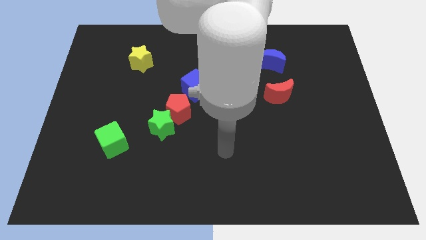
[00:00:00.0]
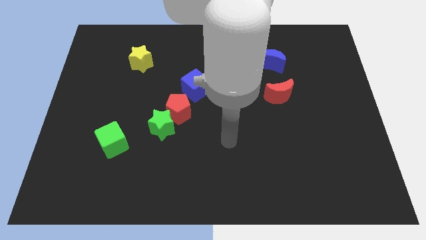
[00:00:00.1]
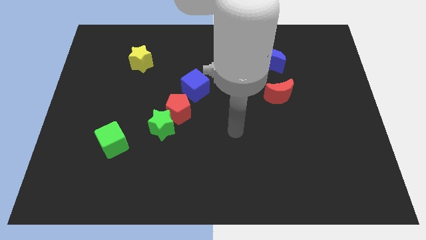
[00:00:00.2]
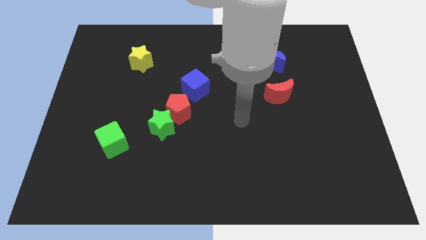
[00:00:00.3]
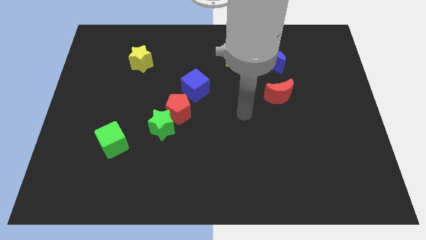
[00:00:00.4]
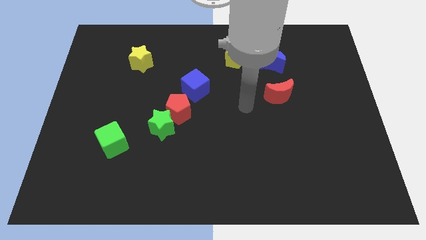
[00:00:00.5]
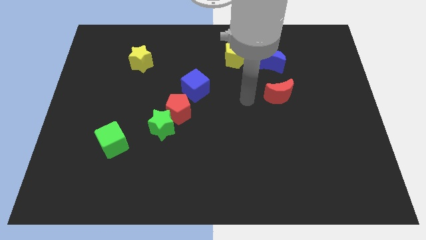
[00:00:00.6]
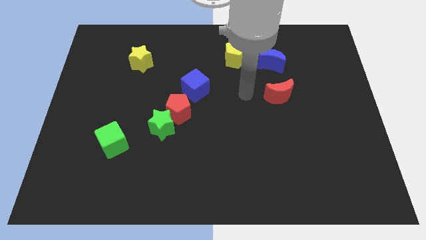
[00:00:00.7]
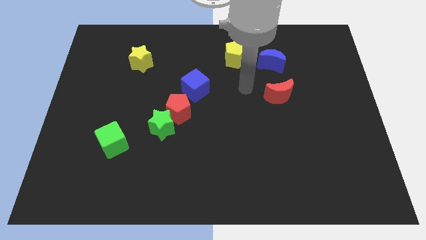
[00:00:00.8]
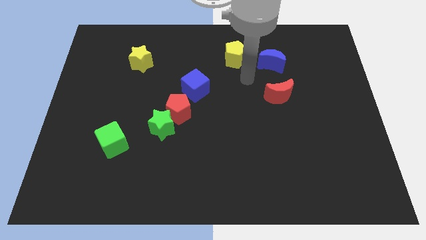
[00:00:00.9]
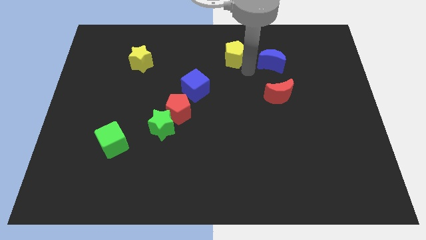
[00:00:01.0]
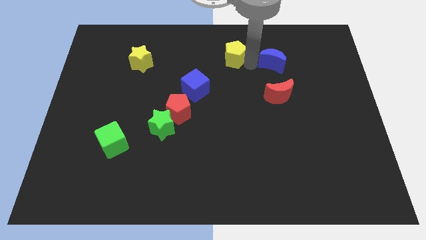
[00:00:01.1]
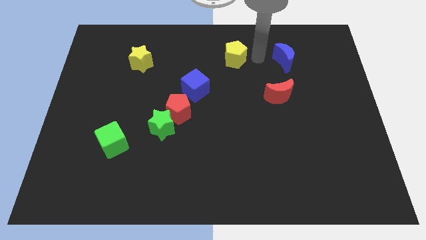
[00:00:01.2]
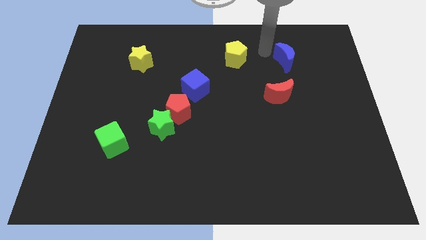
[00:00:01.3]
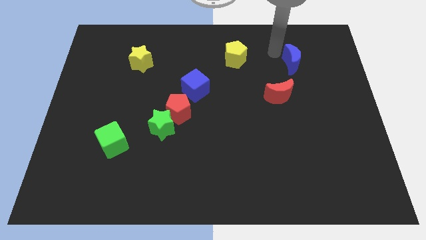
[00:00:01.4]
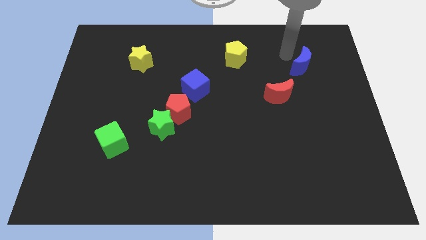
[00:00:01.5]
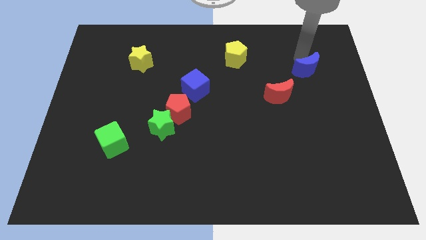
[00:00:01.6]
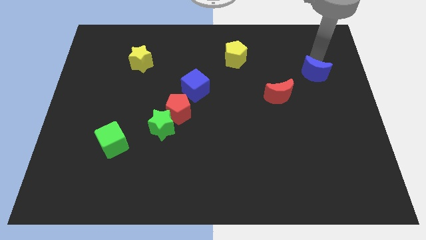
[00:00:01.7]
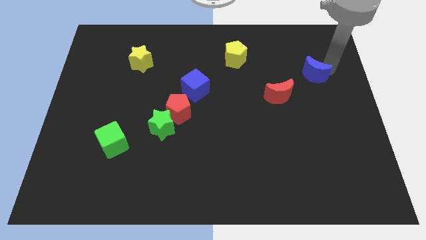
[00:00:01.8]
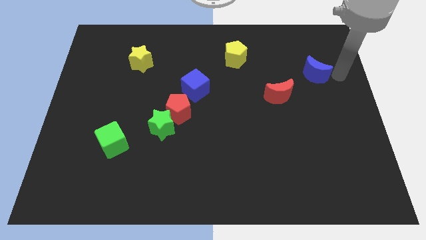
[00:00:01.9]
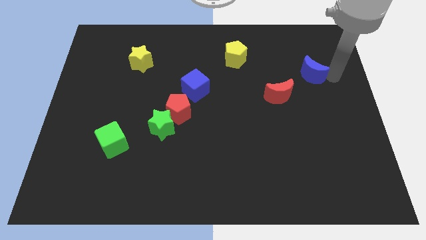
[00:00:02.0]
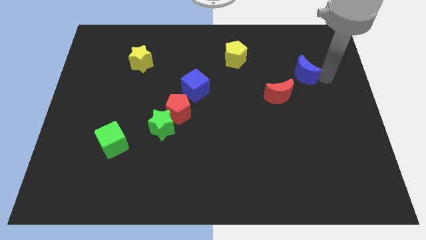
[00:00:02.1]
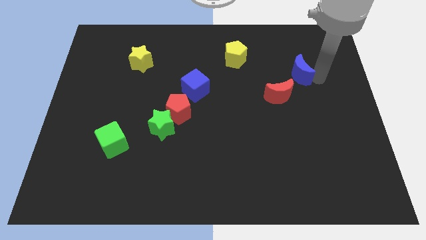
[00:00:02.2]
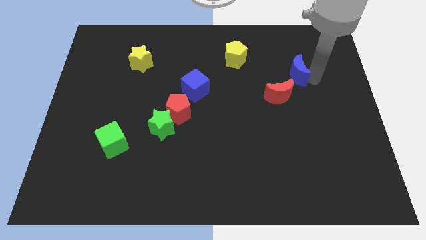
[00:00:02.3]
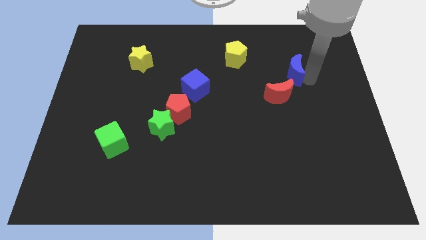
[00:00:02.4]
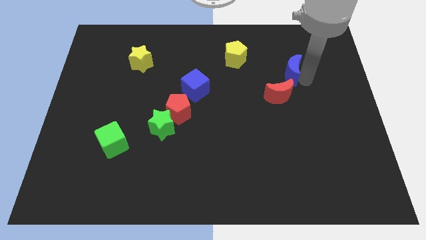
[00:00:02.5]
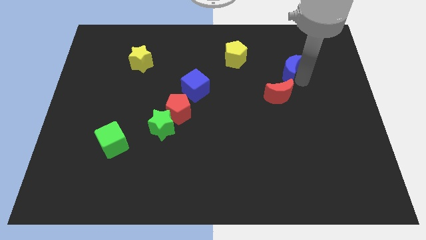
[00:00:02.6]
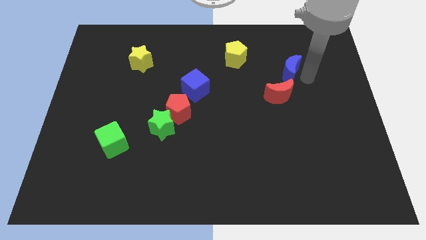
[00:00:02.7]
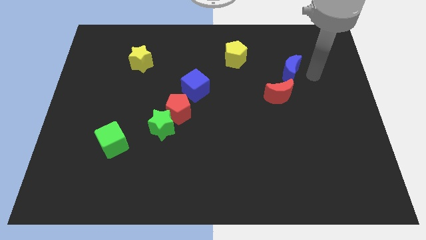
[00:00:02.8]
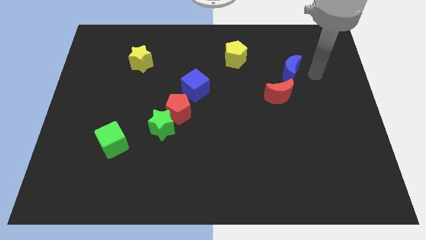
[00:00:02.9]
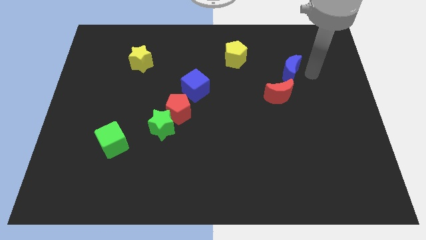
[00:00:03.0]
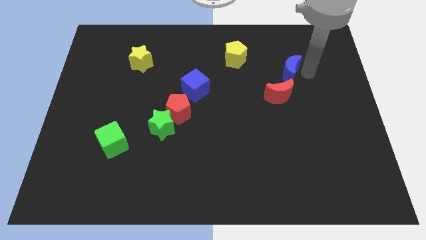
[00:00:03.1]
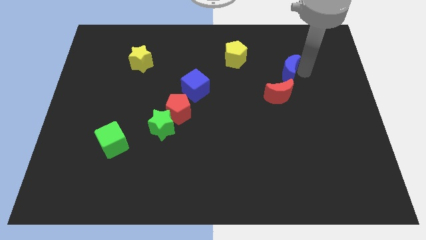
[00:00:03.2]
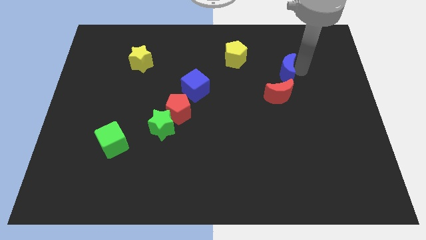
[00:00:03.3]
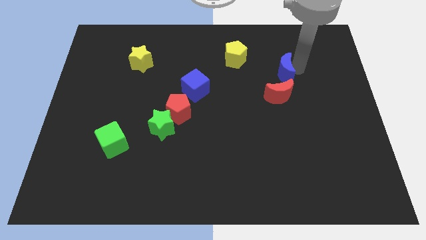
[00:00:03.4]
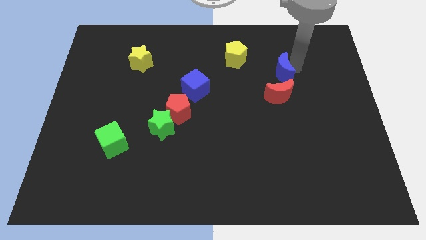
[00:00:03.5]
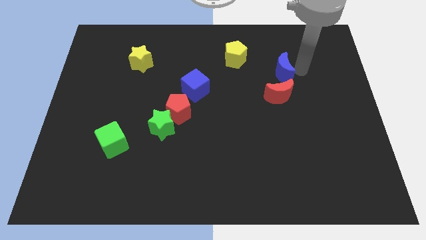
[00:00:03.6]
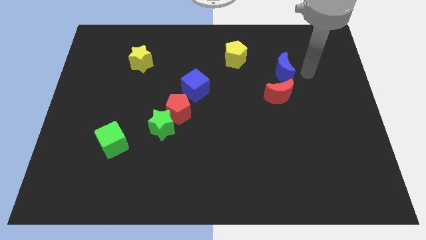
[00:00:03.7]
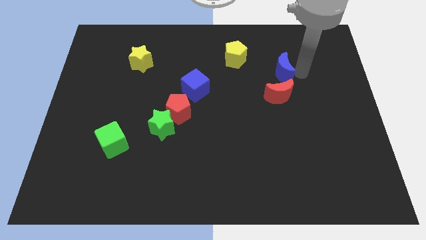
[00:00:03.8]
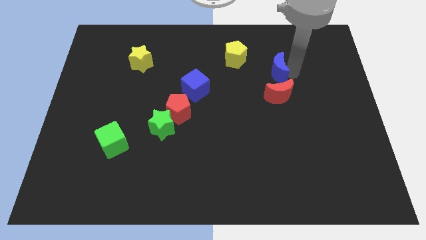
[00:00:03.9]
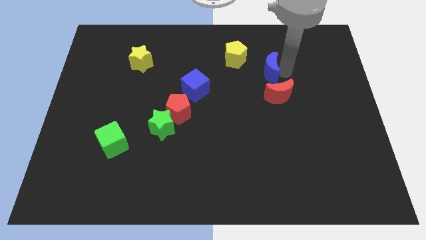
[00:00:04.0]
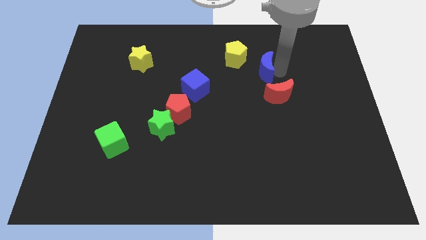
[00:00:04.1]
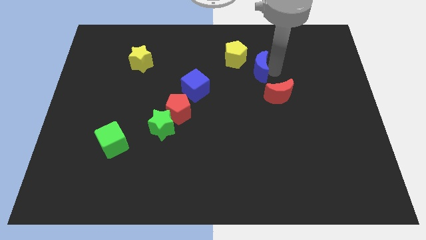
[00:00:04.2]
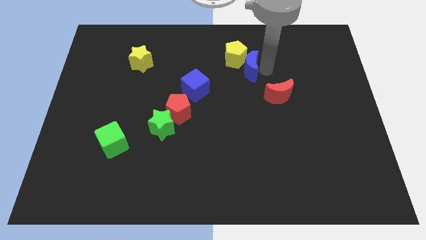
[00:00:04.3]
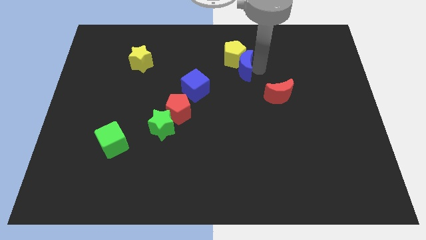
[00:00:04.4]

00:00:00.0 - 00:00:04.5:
slide the blue moon left a bit

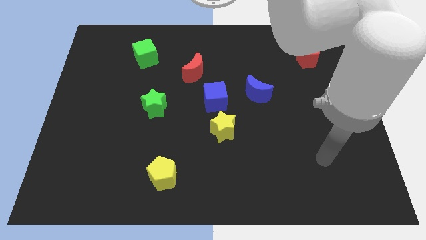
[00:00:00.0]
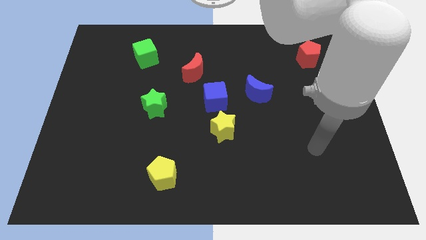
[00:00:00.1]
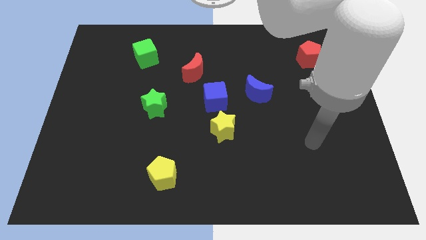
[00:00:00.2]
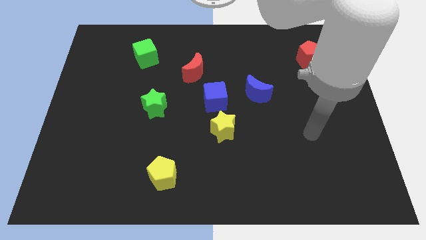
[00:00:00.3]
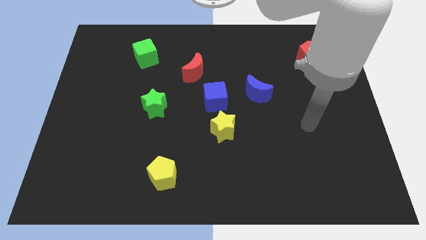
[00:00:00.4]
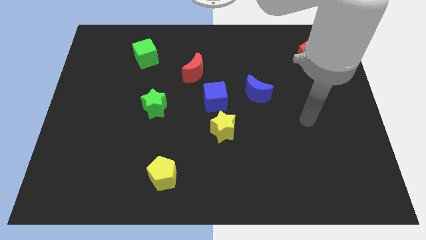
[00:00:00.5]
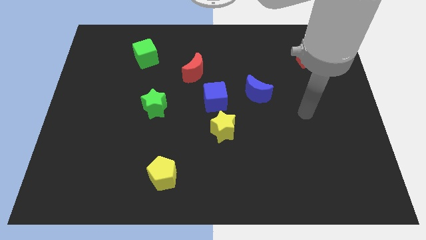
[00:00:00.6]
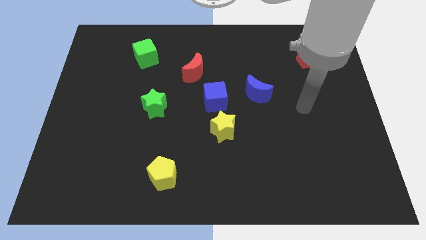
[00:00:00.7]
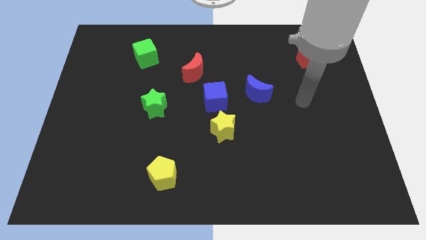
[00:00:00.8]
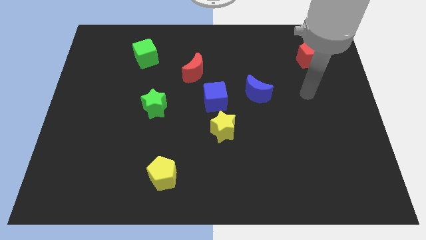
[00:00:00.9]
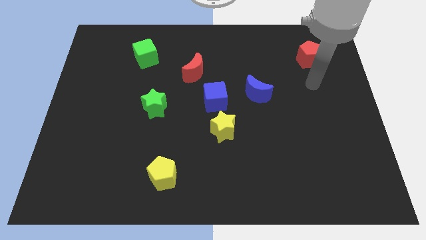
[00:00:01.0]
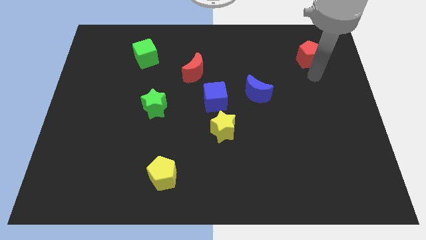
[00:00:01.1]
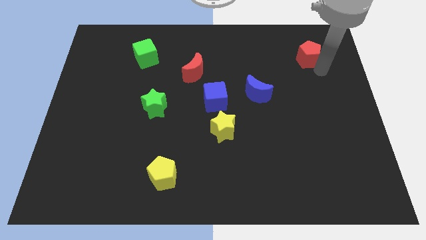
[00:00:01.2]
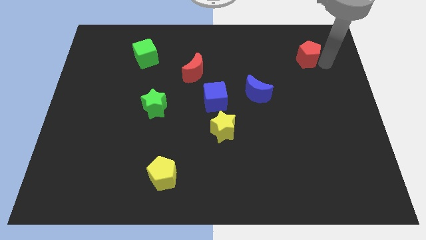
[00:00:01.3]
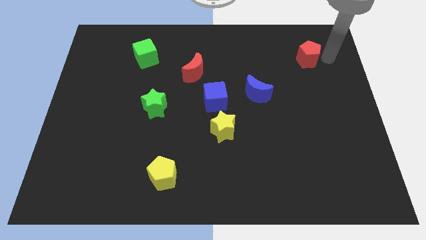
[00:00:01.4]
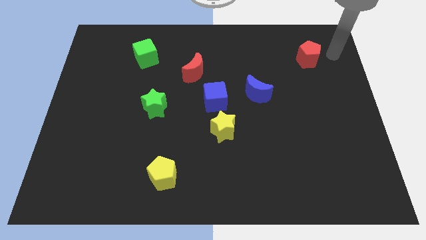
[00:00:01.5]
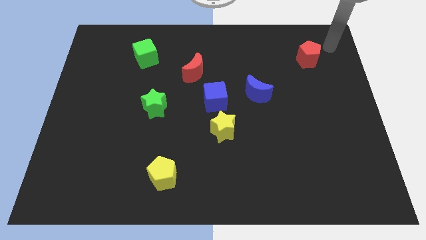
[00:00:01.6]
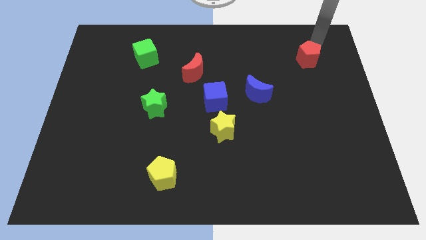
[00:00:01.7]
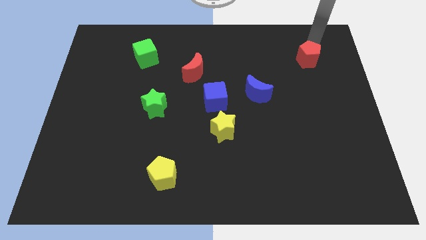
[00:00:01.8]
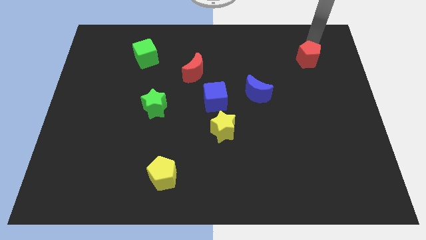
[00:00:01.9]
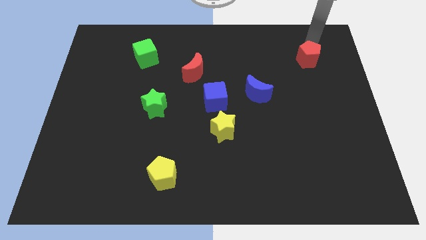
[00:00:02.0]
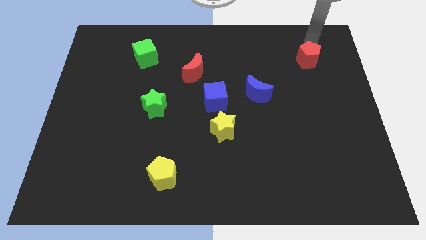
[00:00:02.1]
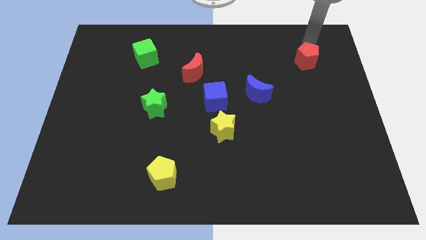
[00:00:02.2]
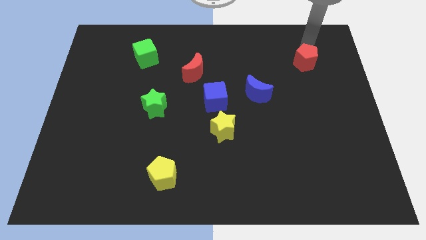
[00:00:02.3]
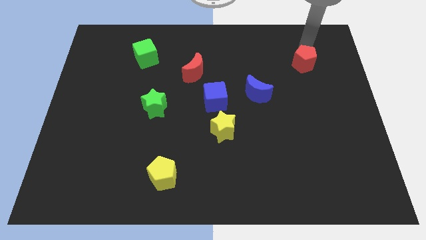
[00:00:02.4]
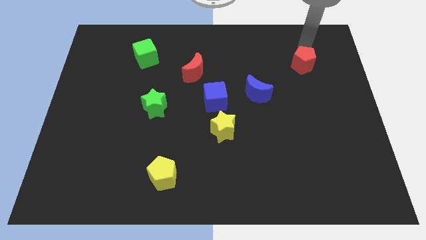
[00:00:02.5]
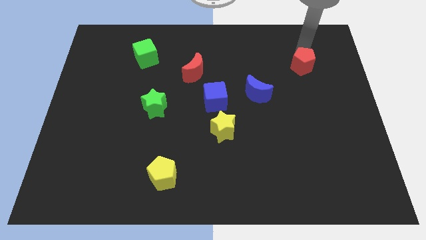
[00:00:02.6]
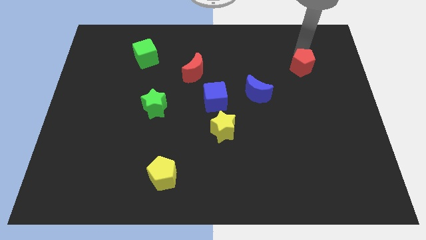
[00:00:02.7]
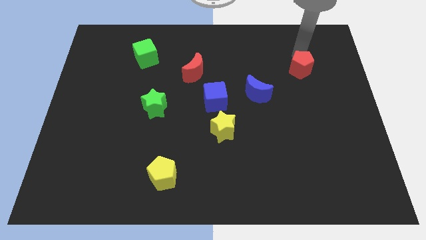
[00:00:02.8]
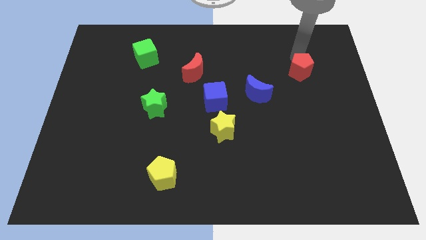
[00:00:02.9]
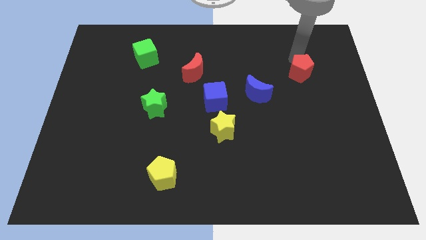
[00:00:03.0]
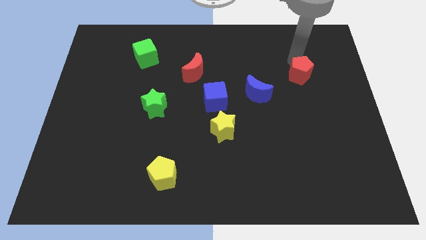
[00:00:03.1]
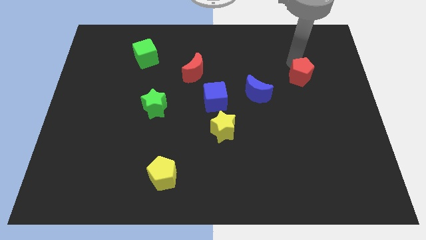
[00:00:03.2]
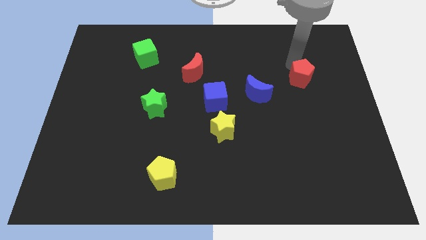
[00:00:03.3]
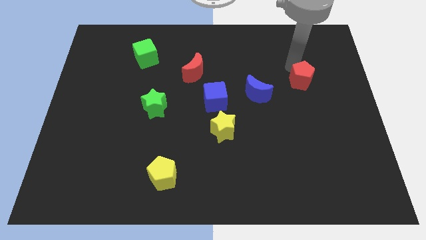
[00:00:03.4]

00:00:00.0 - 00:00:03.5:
push the red pentagon down slightly

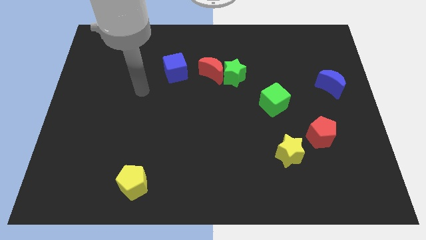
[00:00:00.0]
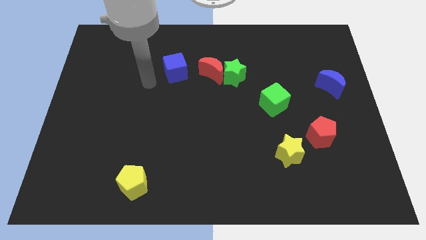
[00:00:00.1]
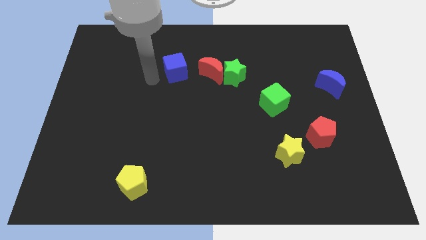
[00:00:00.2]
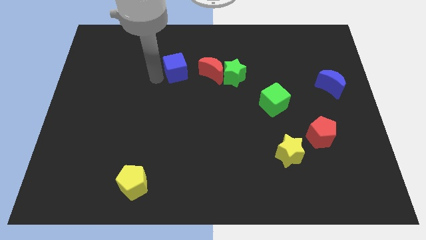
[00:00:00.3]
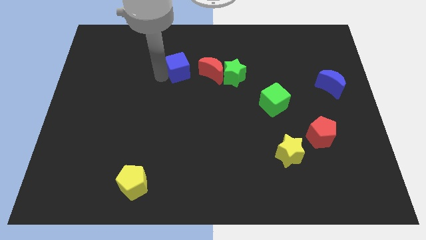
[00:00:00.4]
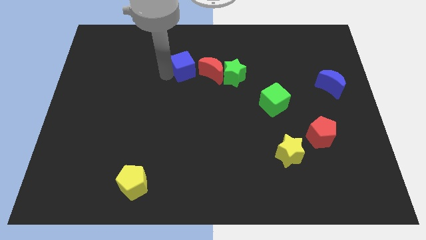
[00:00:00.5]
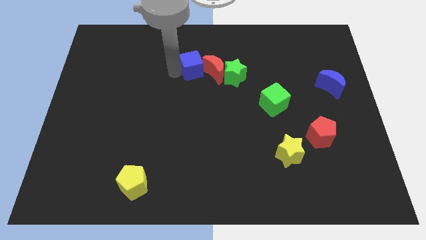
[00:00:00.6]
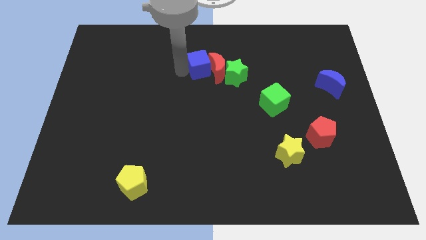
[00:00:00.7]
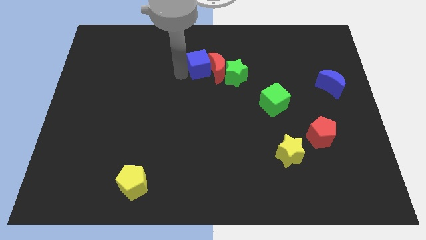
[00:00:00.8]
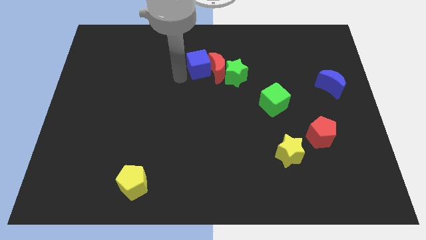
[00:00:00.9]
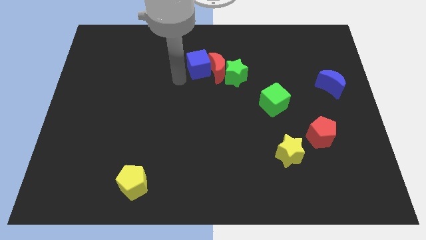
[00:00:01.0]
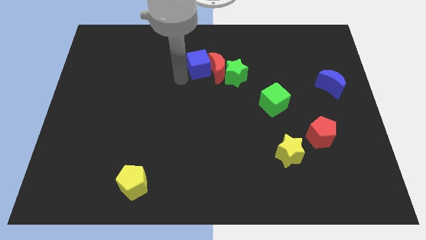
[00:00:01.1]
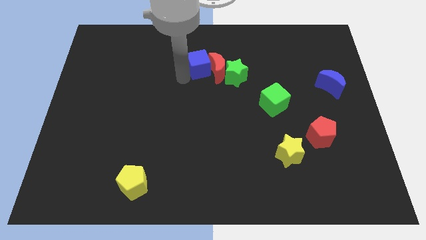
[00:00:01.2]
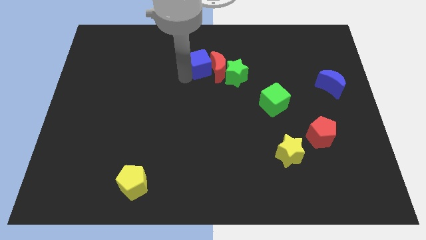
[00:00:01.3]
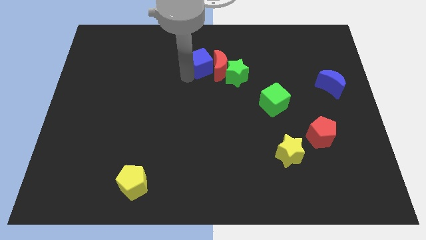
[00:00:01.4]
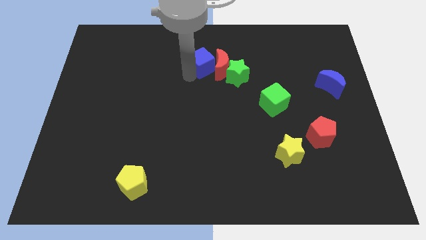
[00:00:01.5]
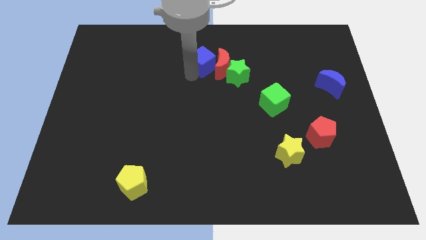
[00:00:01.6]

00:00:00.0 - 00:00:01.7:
slide the blue cube a little bit to the right
